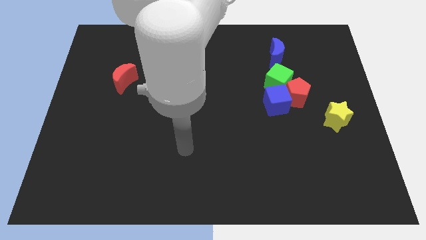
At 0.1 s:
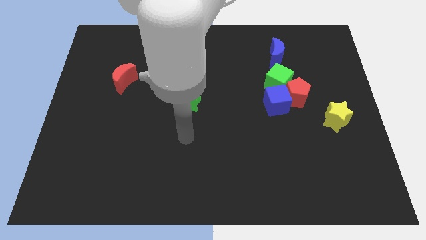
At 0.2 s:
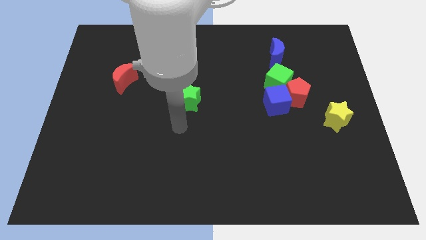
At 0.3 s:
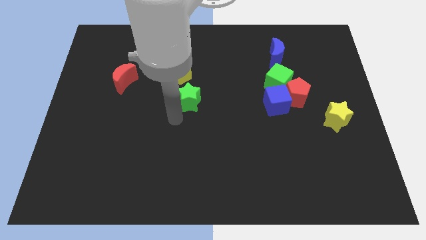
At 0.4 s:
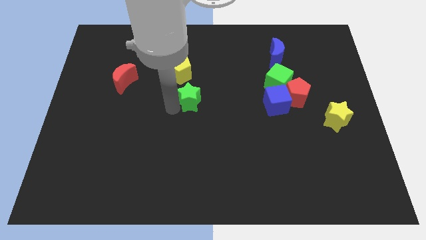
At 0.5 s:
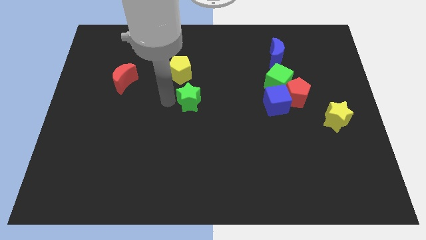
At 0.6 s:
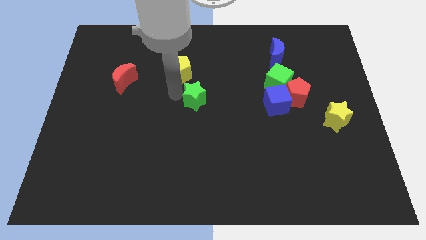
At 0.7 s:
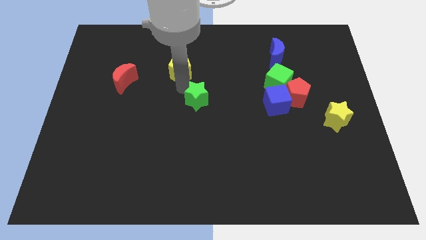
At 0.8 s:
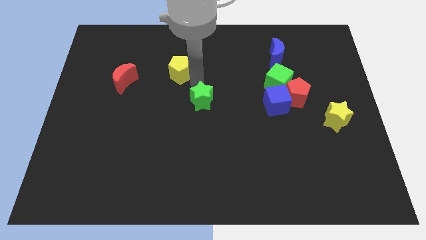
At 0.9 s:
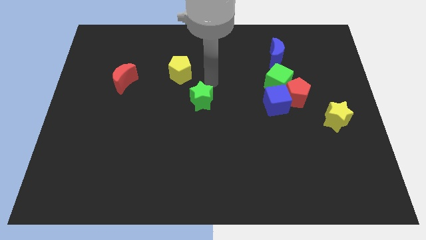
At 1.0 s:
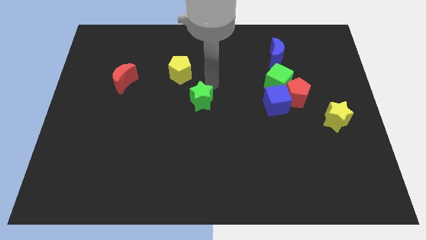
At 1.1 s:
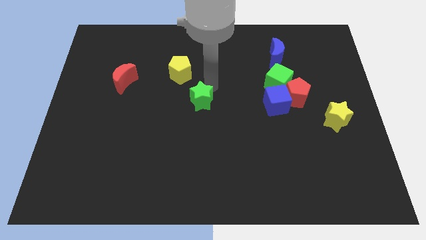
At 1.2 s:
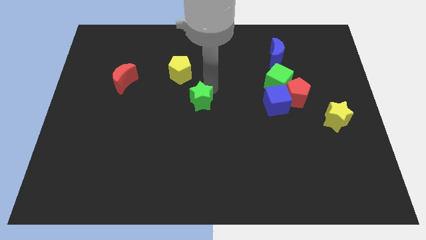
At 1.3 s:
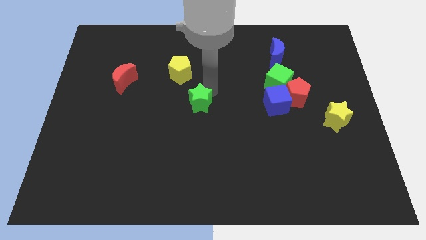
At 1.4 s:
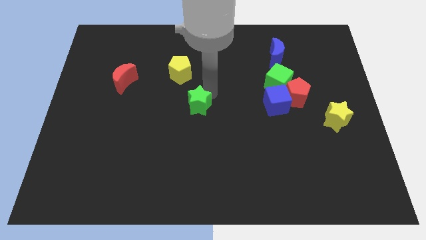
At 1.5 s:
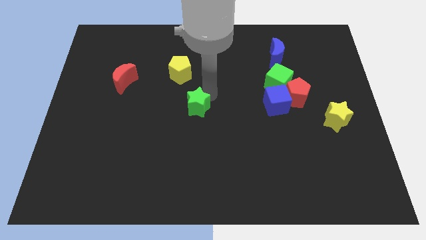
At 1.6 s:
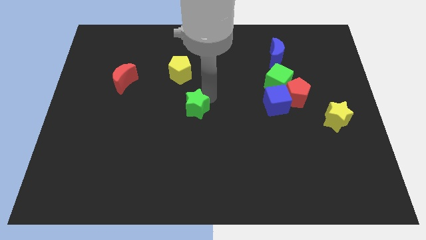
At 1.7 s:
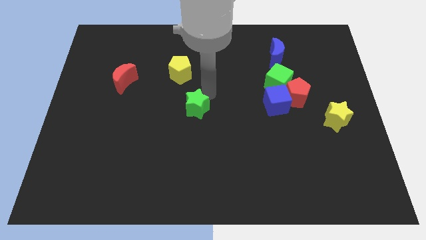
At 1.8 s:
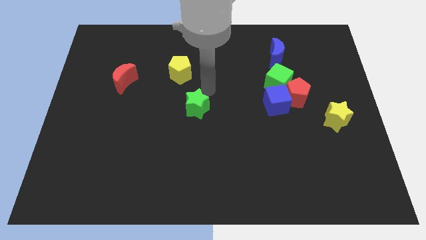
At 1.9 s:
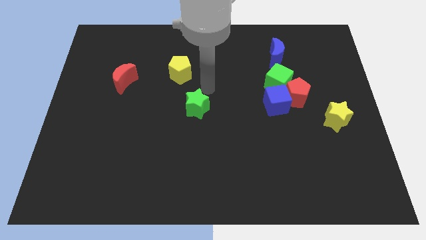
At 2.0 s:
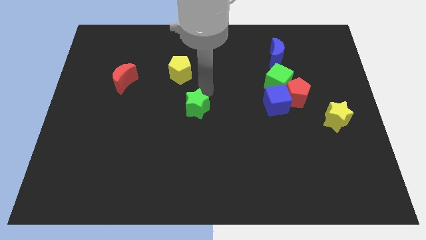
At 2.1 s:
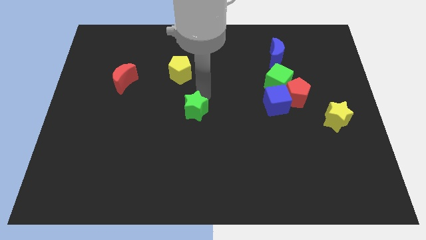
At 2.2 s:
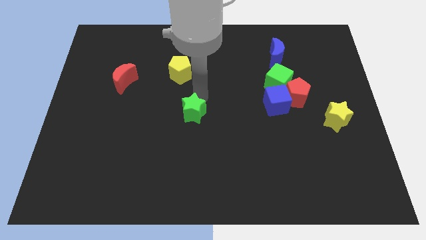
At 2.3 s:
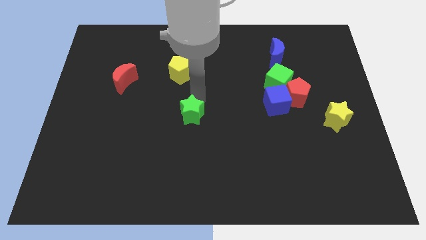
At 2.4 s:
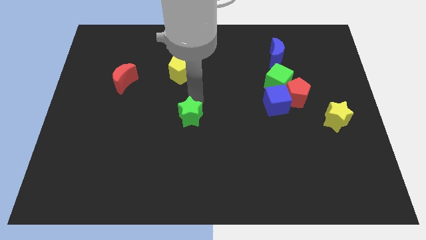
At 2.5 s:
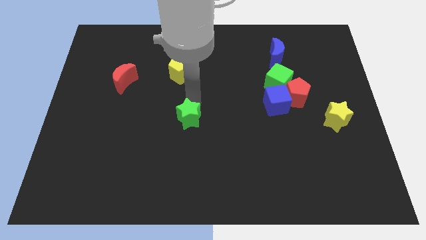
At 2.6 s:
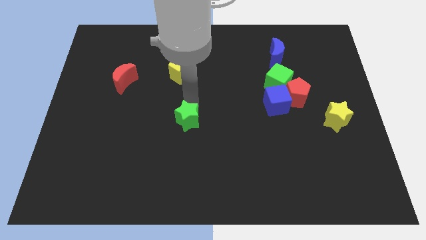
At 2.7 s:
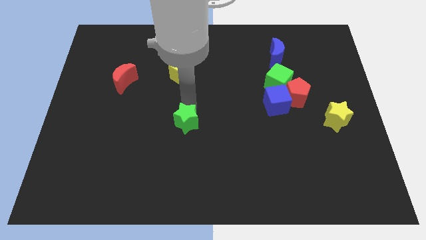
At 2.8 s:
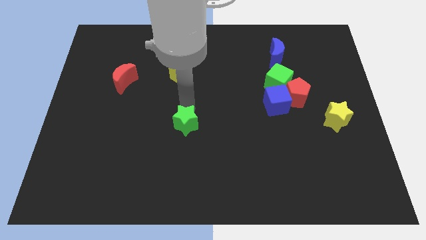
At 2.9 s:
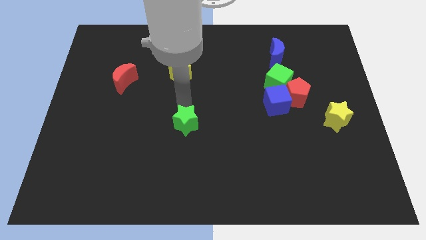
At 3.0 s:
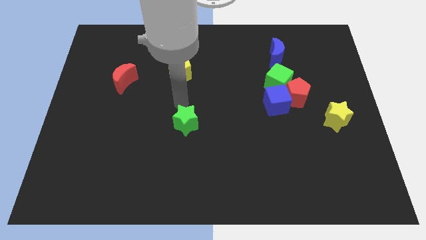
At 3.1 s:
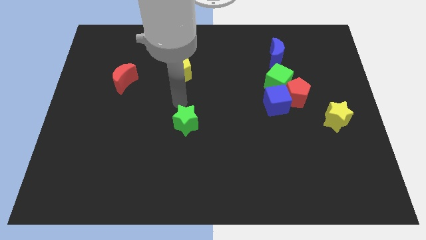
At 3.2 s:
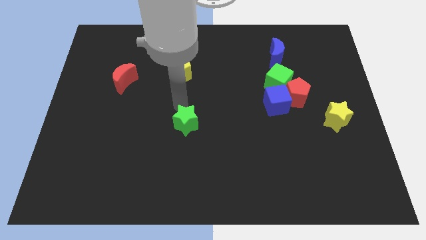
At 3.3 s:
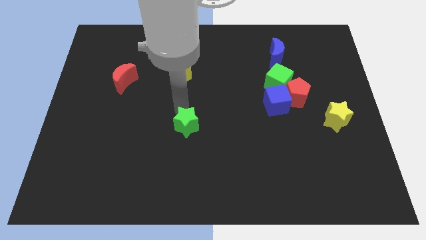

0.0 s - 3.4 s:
push the green star slightly downwards

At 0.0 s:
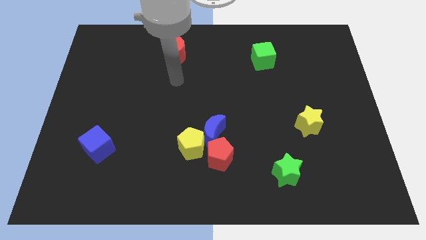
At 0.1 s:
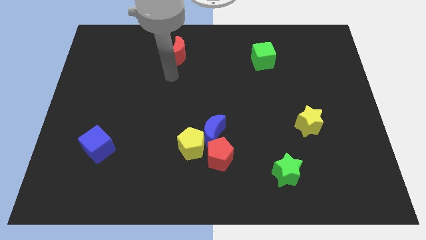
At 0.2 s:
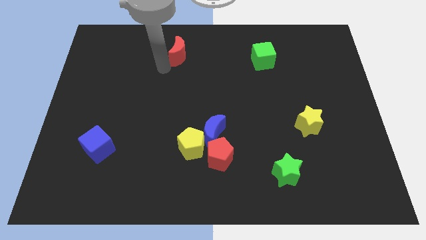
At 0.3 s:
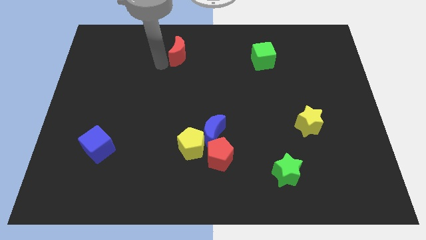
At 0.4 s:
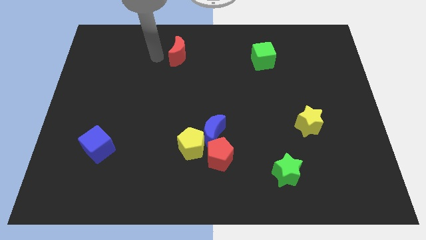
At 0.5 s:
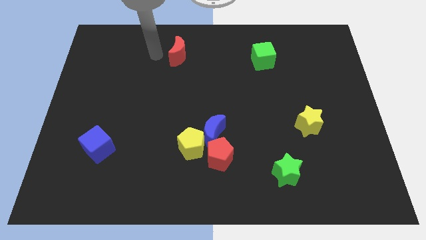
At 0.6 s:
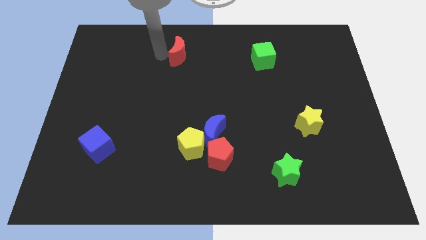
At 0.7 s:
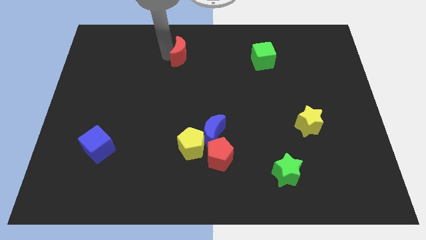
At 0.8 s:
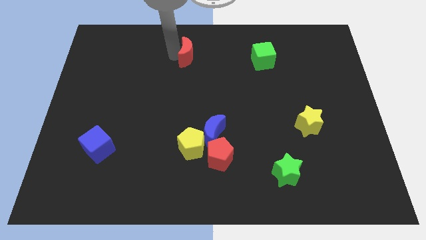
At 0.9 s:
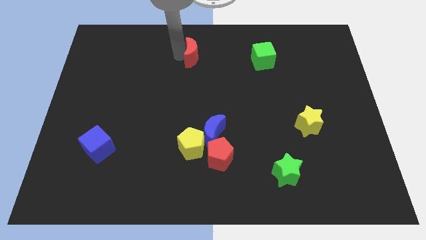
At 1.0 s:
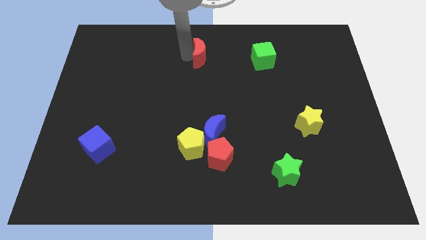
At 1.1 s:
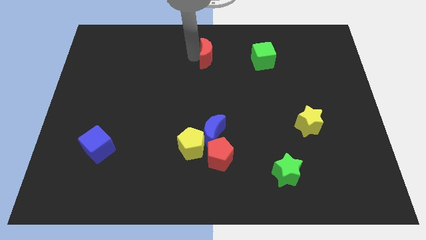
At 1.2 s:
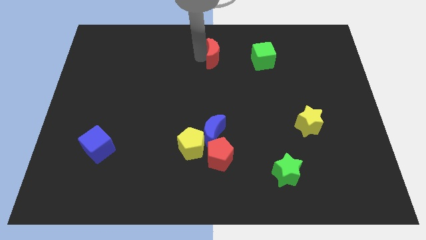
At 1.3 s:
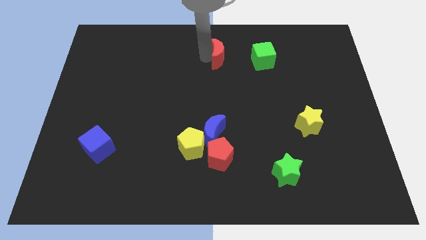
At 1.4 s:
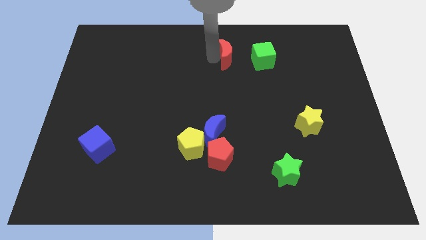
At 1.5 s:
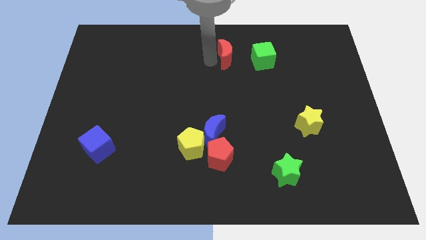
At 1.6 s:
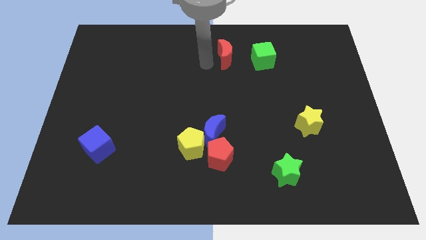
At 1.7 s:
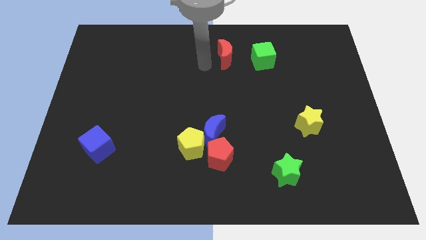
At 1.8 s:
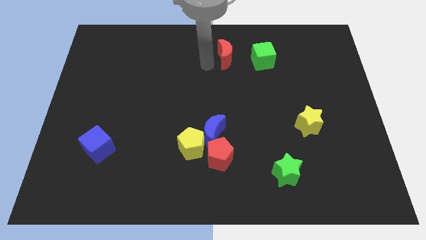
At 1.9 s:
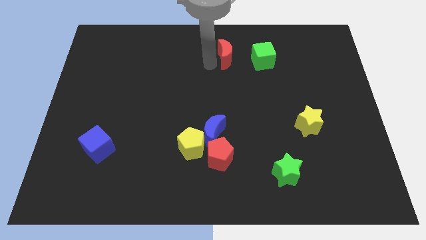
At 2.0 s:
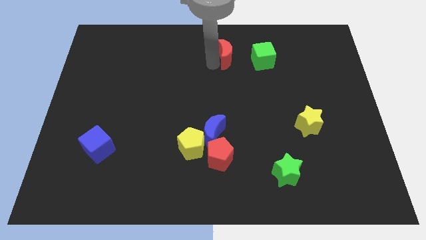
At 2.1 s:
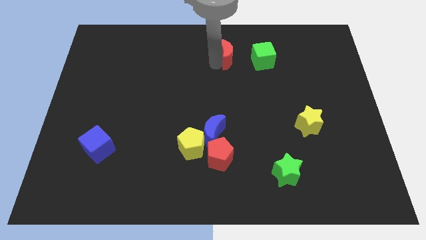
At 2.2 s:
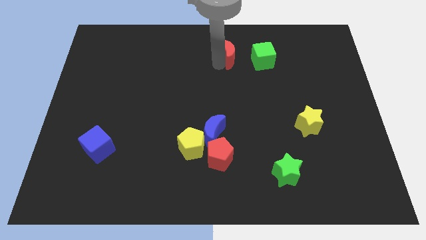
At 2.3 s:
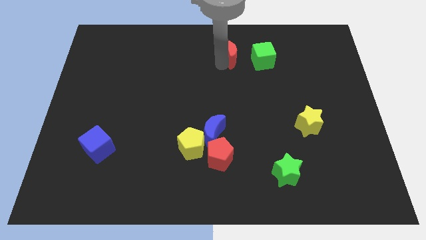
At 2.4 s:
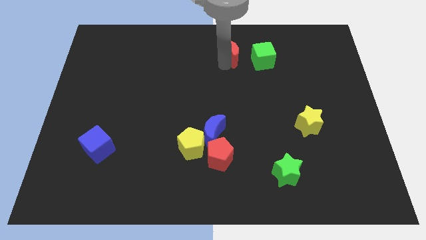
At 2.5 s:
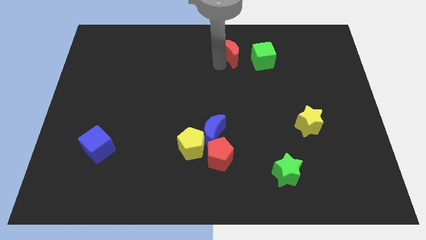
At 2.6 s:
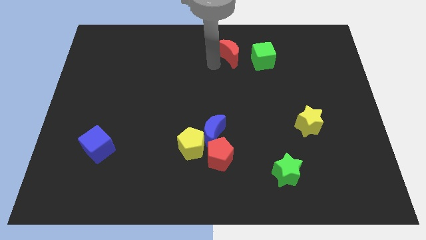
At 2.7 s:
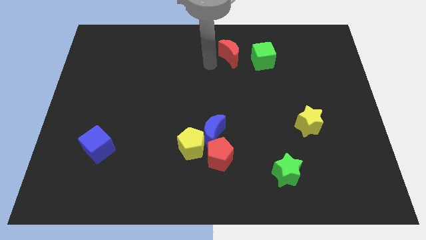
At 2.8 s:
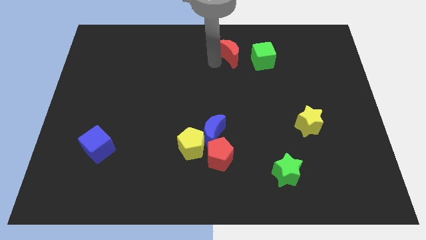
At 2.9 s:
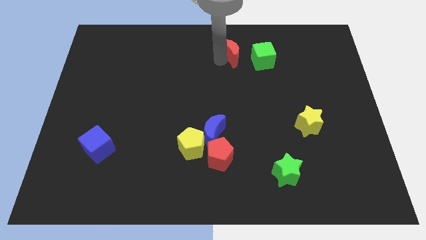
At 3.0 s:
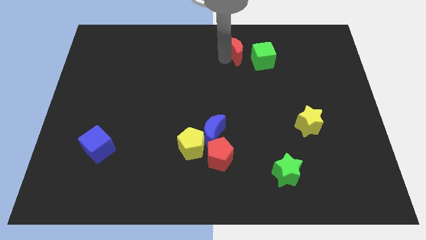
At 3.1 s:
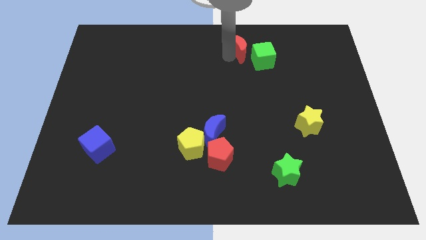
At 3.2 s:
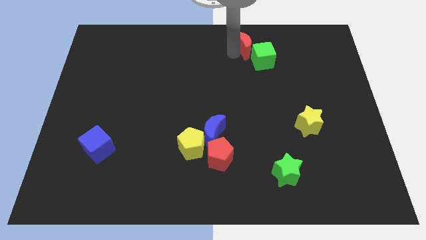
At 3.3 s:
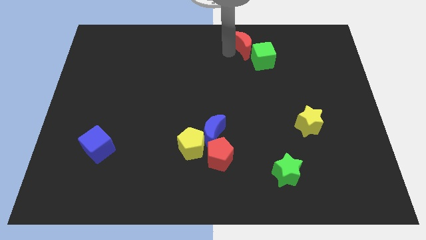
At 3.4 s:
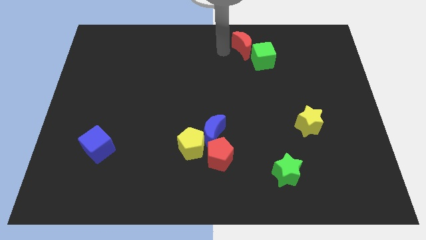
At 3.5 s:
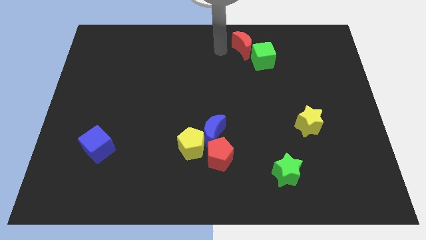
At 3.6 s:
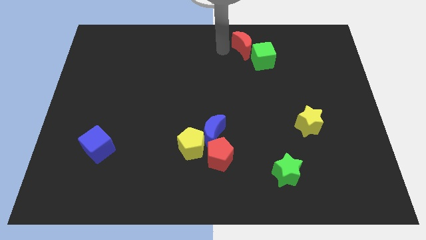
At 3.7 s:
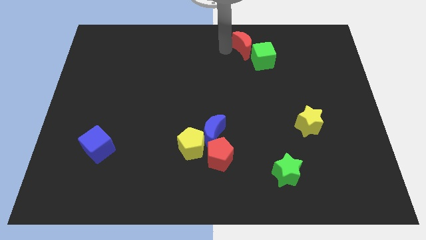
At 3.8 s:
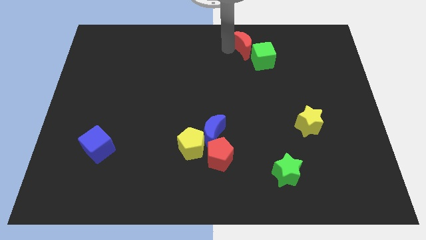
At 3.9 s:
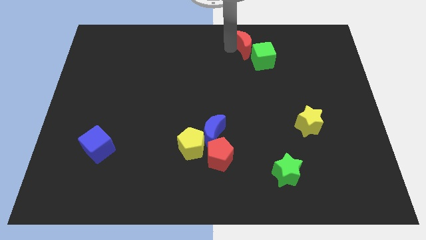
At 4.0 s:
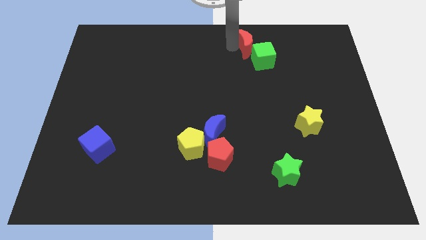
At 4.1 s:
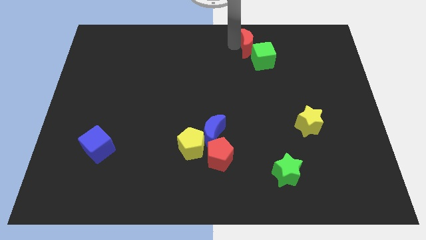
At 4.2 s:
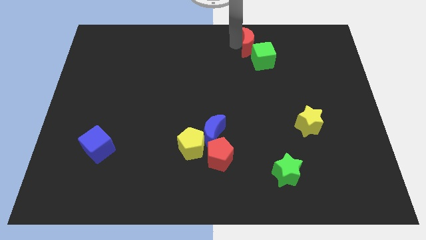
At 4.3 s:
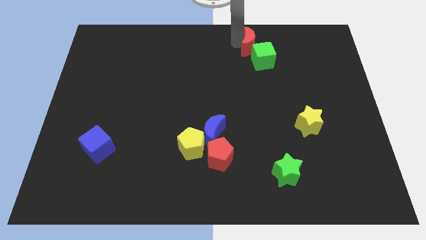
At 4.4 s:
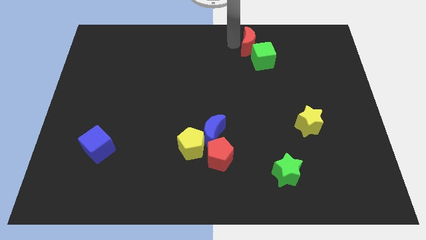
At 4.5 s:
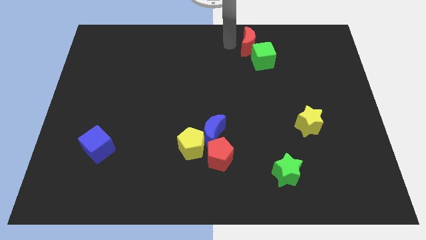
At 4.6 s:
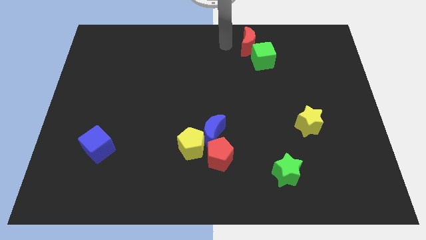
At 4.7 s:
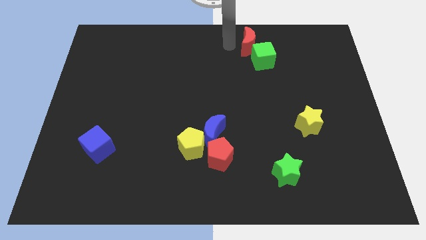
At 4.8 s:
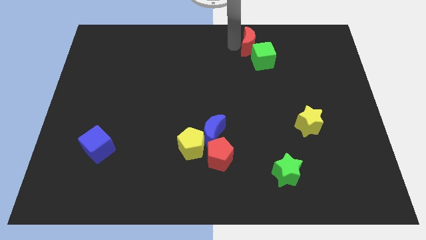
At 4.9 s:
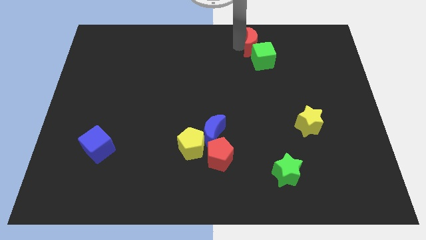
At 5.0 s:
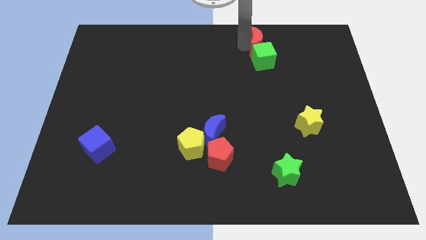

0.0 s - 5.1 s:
slide the red moon right
